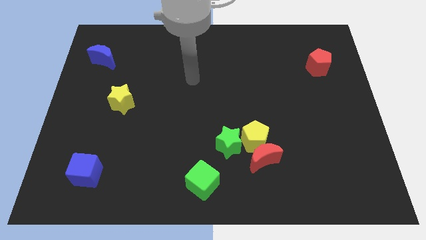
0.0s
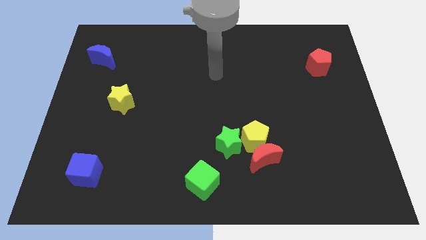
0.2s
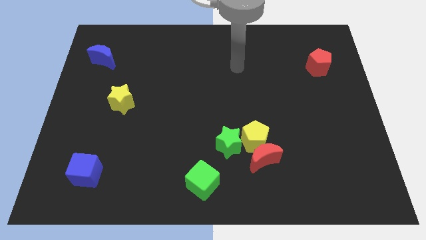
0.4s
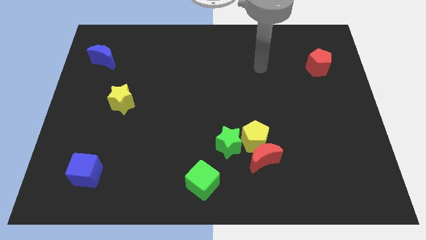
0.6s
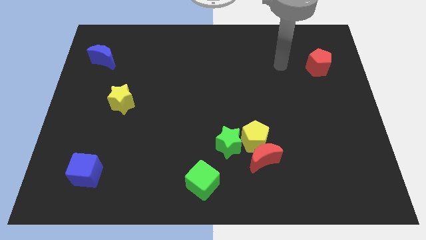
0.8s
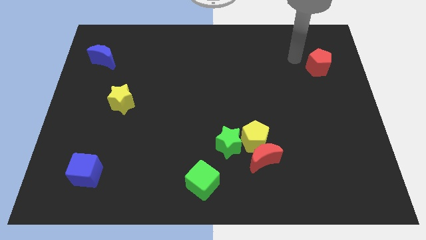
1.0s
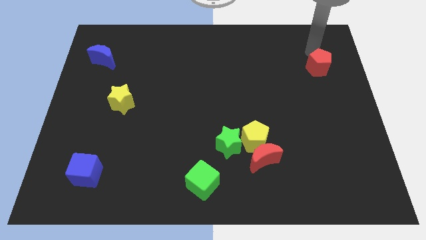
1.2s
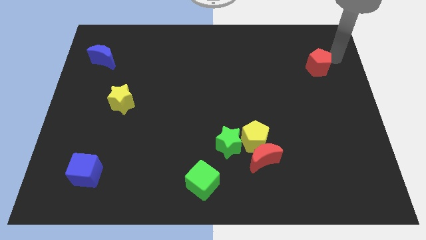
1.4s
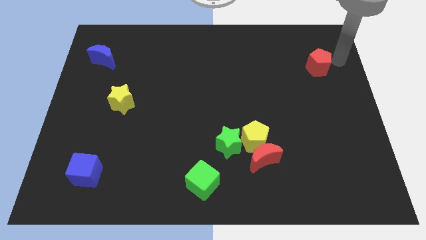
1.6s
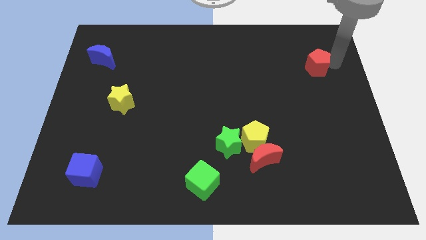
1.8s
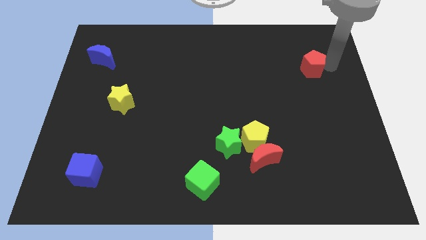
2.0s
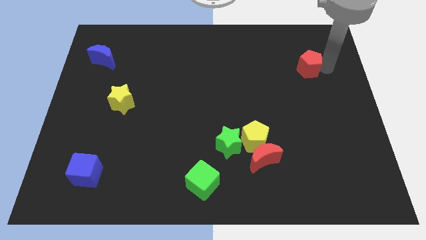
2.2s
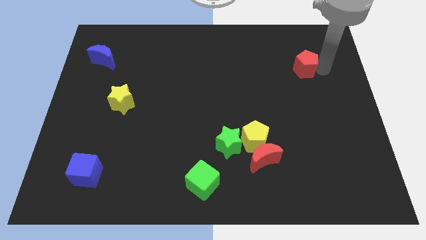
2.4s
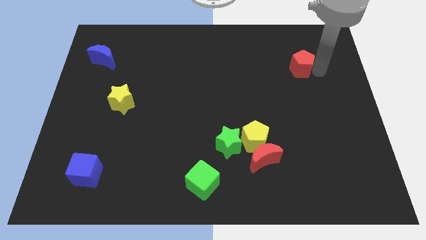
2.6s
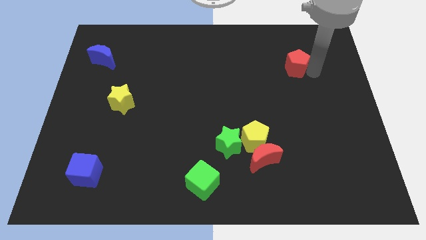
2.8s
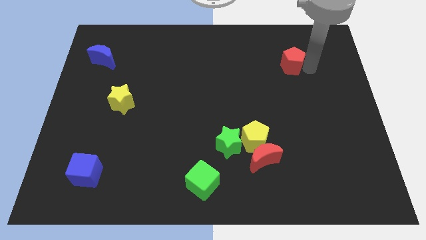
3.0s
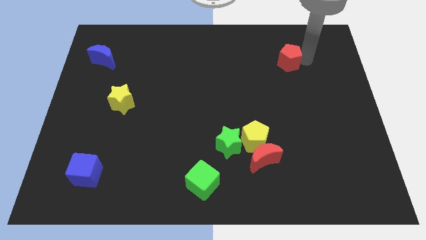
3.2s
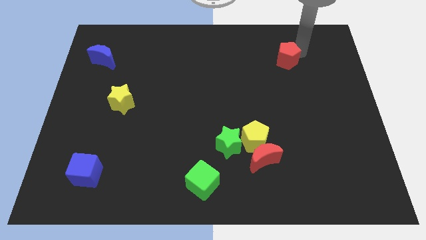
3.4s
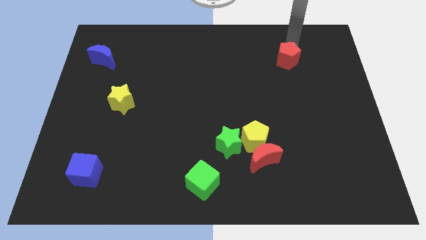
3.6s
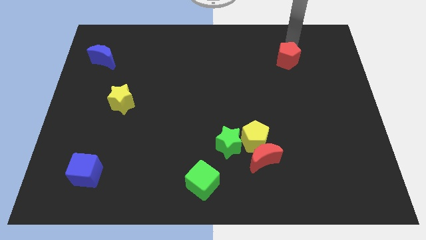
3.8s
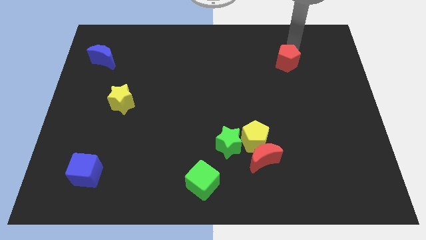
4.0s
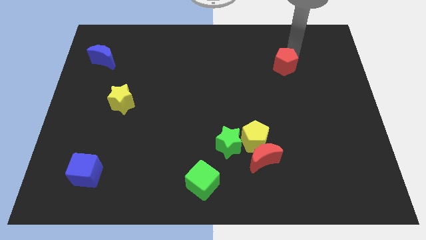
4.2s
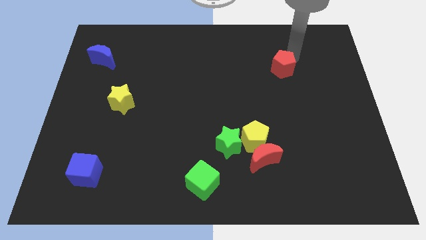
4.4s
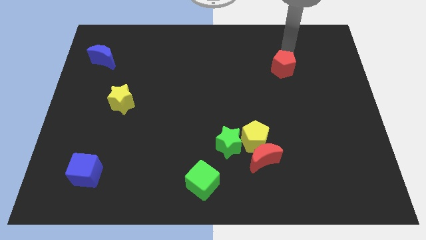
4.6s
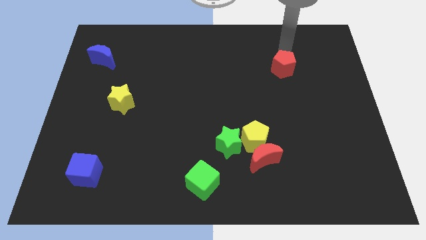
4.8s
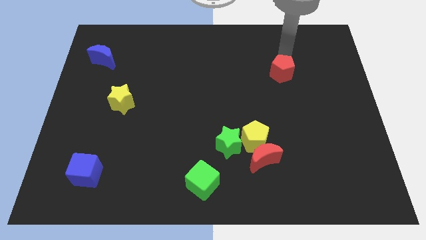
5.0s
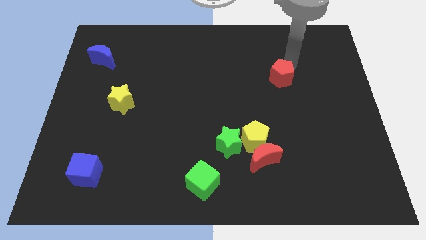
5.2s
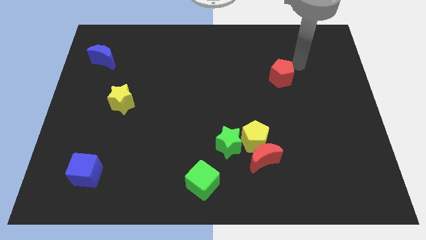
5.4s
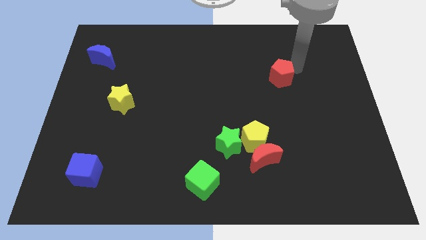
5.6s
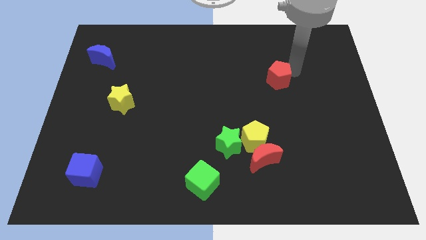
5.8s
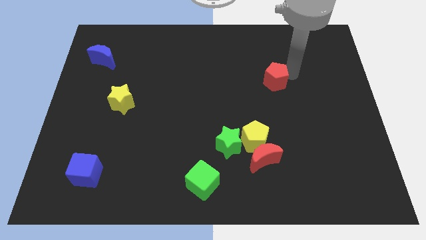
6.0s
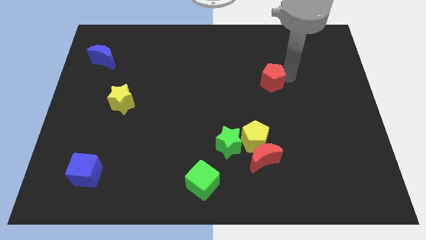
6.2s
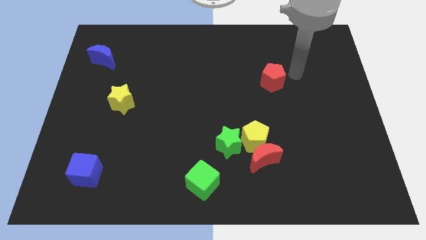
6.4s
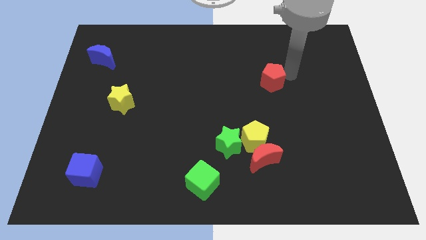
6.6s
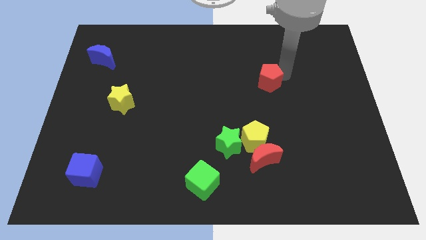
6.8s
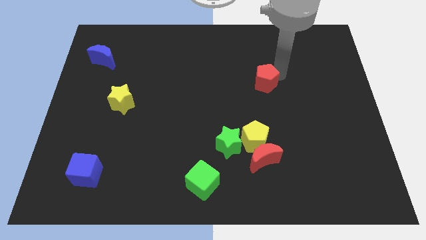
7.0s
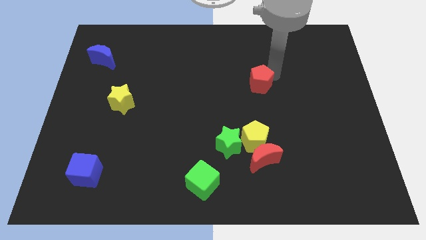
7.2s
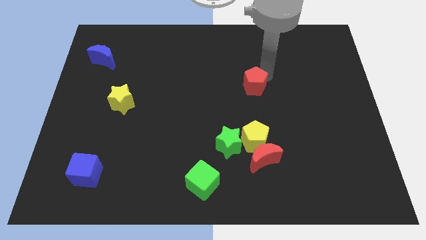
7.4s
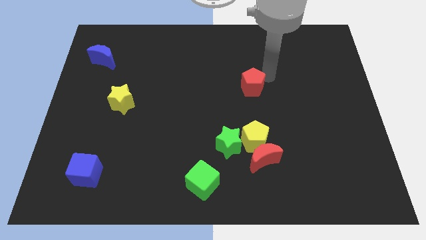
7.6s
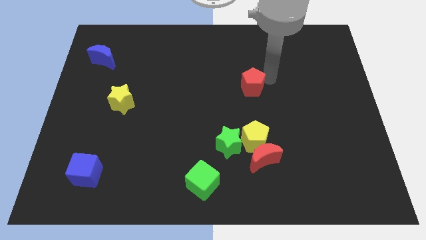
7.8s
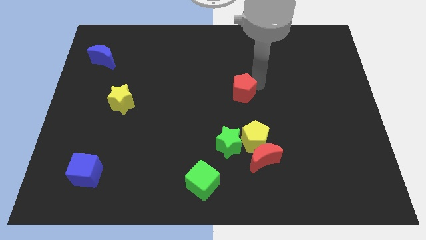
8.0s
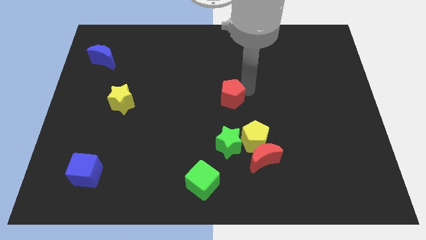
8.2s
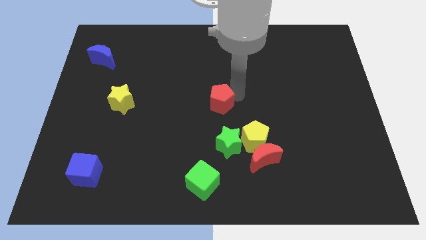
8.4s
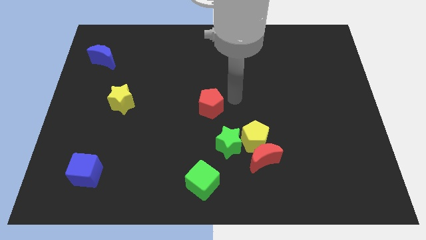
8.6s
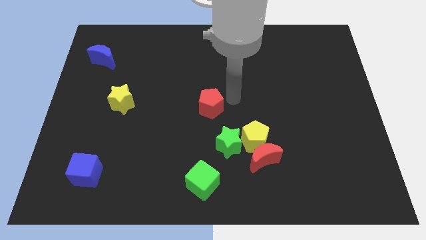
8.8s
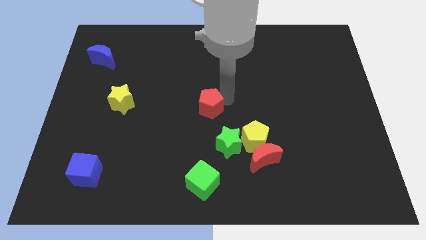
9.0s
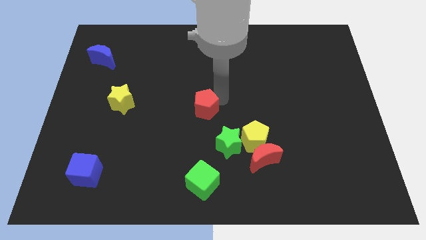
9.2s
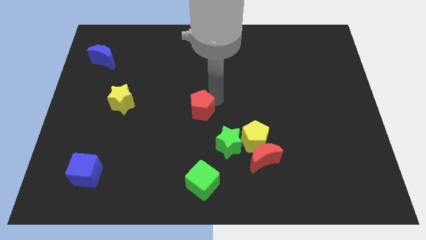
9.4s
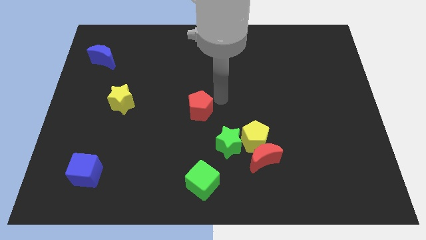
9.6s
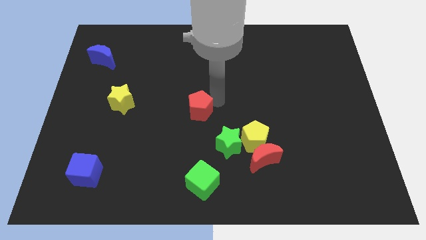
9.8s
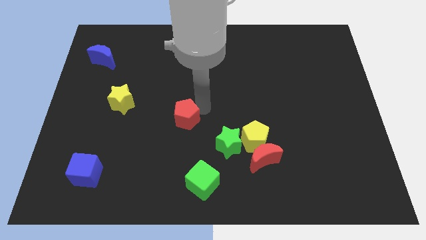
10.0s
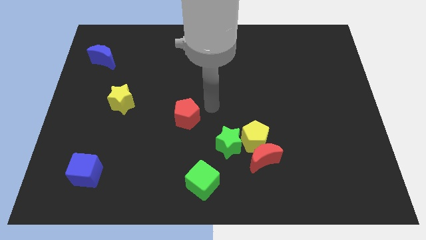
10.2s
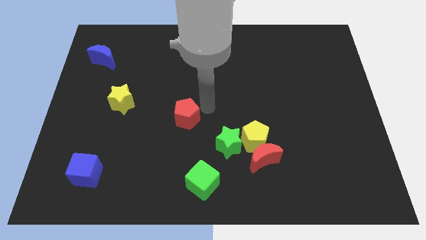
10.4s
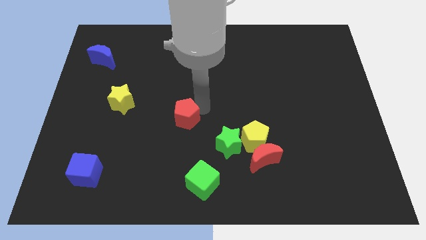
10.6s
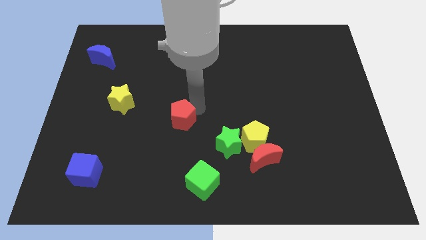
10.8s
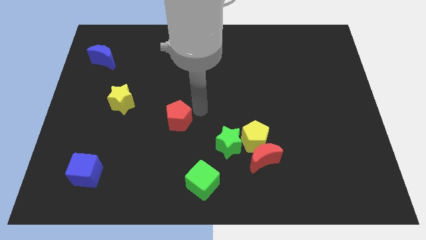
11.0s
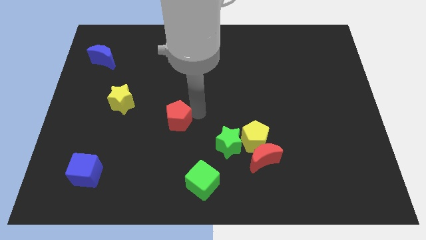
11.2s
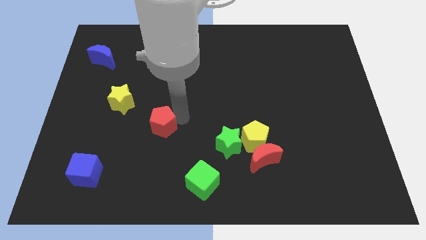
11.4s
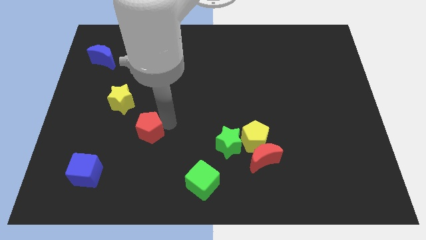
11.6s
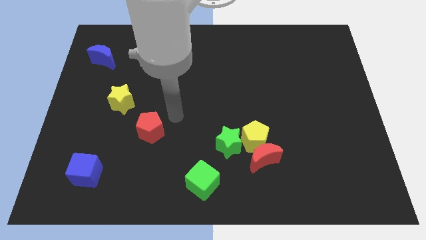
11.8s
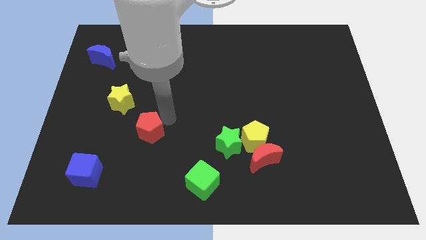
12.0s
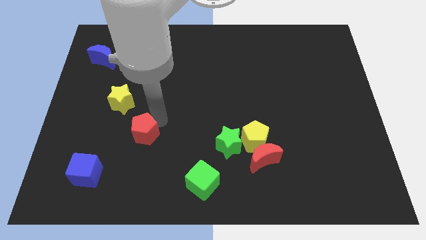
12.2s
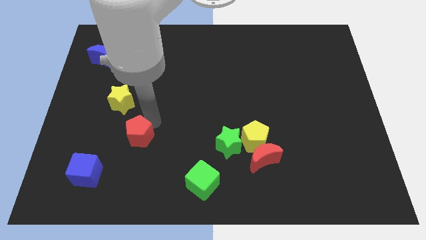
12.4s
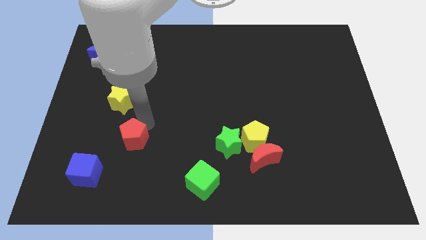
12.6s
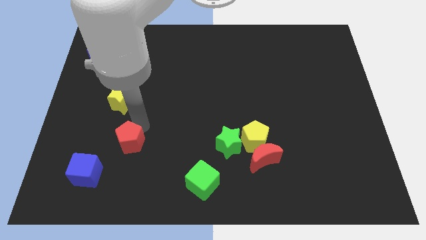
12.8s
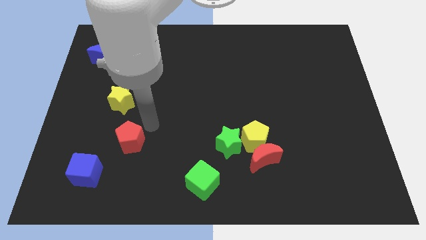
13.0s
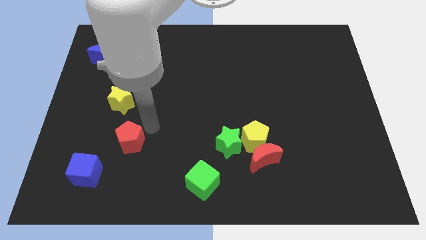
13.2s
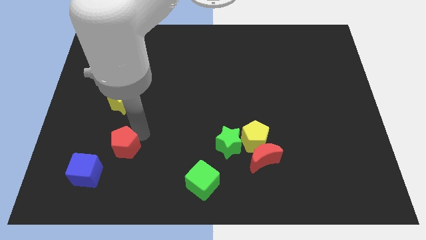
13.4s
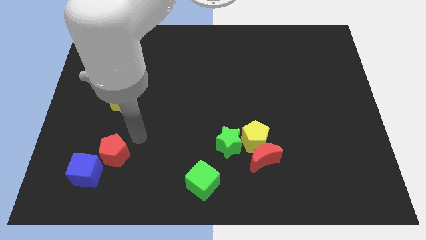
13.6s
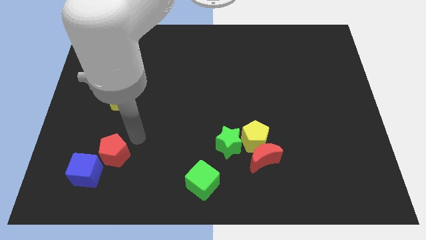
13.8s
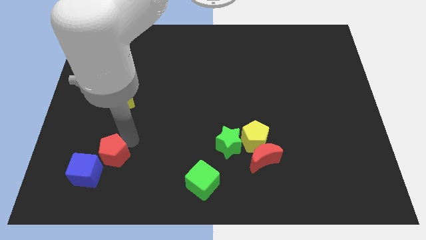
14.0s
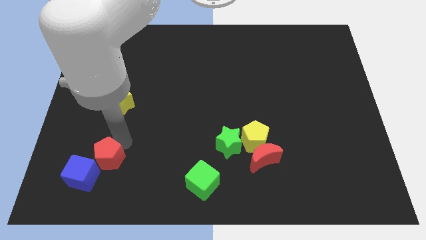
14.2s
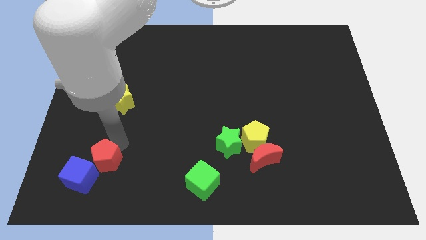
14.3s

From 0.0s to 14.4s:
slide the red pentagon towards the blue cube

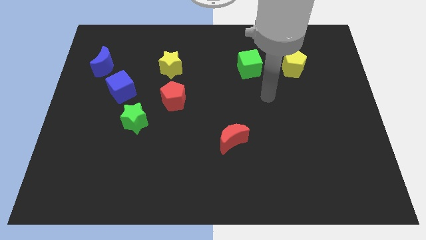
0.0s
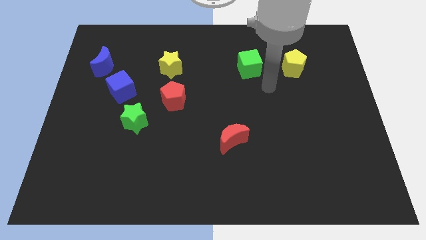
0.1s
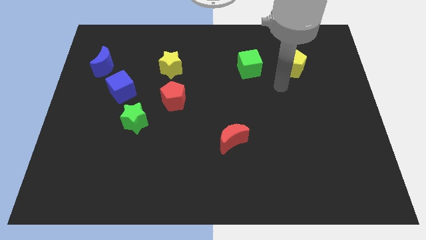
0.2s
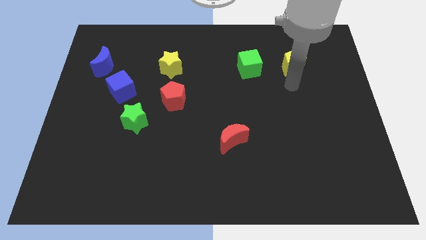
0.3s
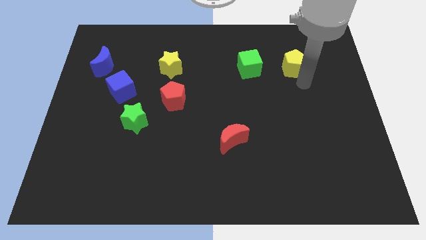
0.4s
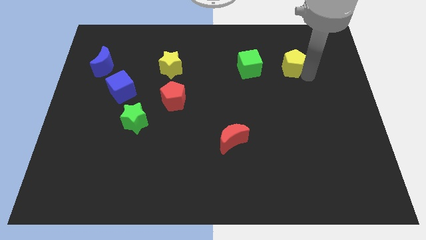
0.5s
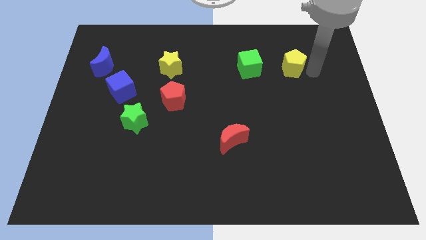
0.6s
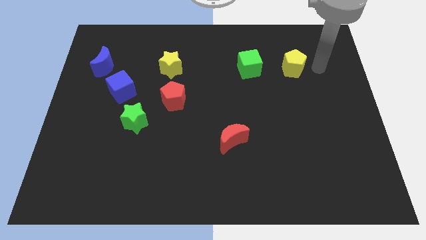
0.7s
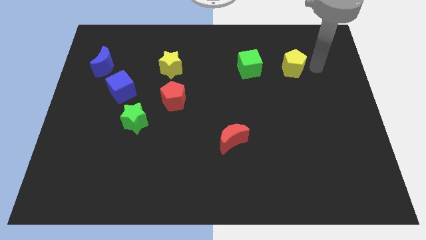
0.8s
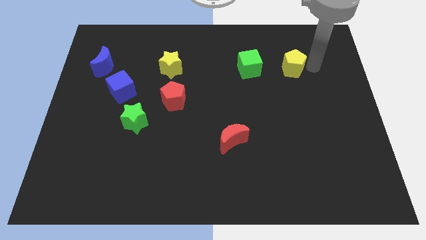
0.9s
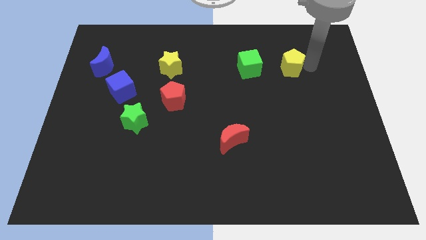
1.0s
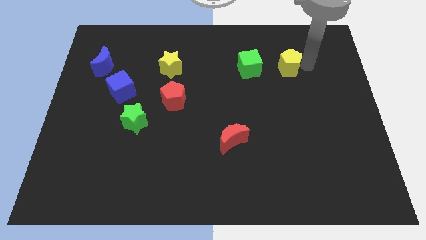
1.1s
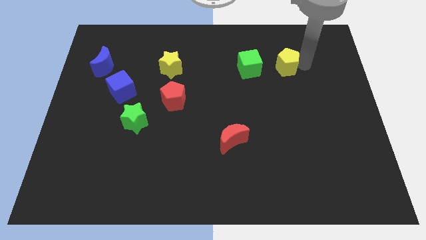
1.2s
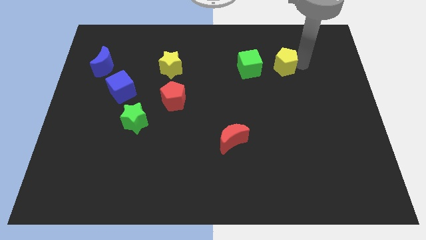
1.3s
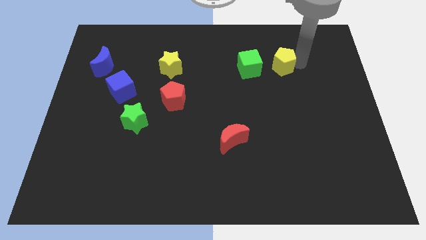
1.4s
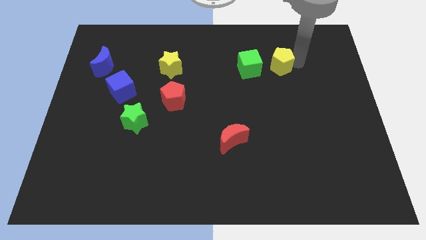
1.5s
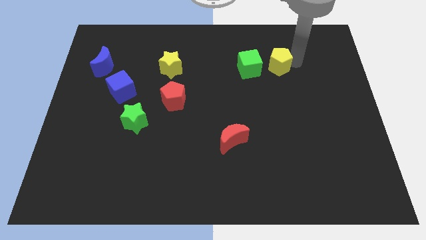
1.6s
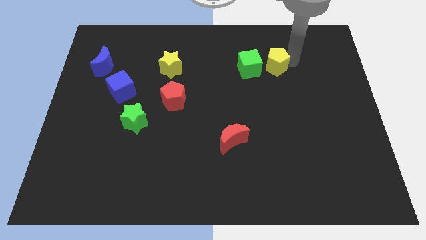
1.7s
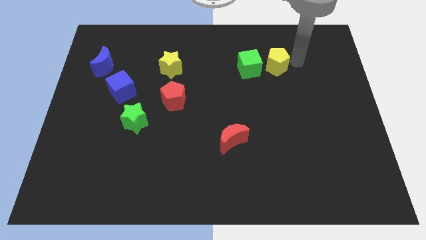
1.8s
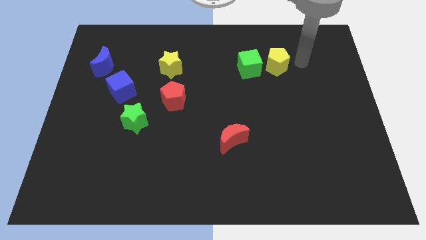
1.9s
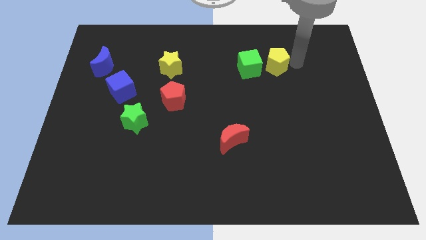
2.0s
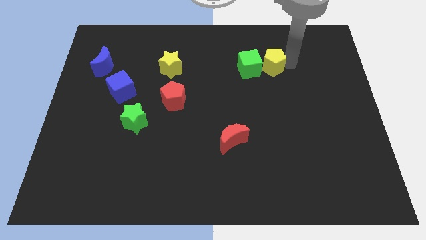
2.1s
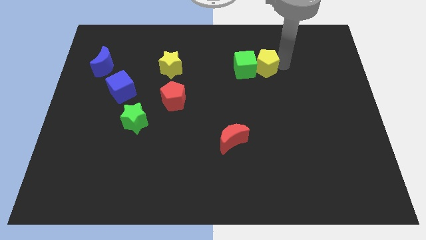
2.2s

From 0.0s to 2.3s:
slide the yellow pentagon next to the green cube
